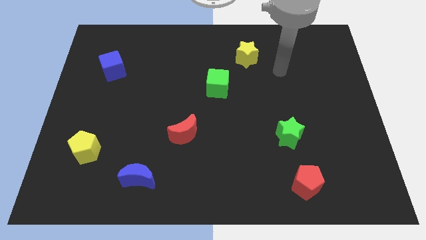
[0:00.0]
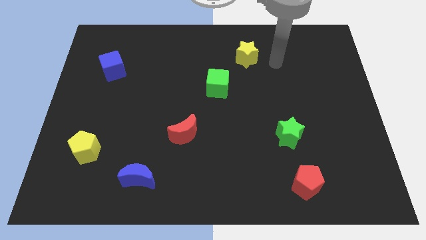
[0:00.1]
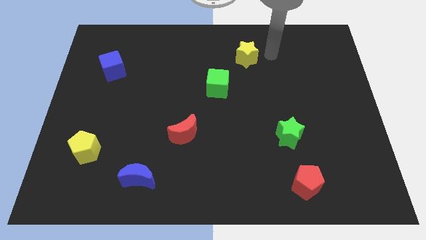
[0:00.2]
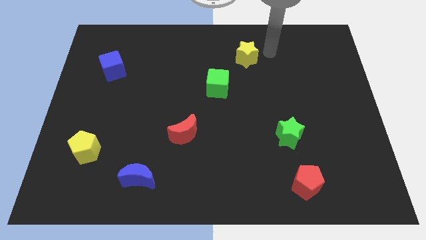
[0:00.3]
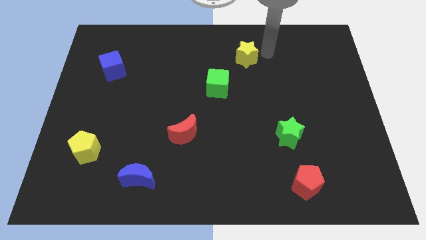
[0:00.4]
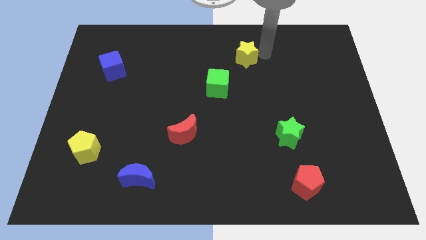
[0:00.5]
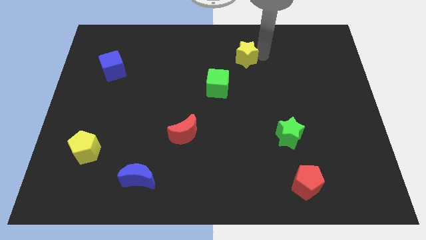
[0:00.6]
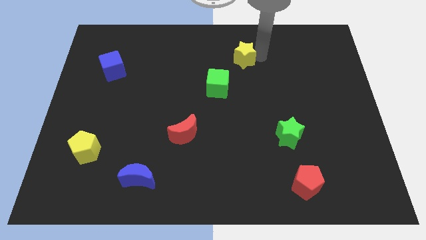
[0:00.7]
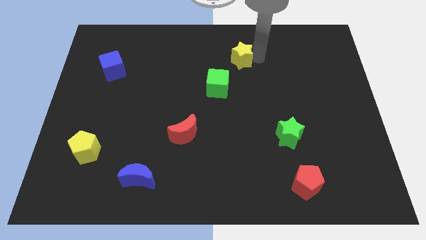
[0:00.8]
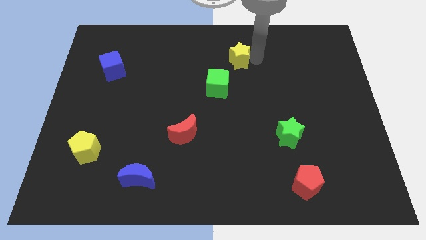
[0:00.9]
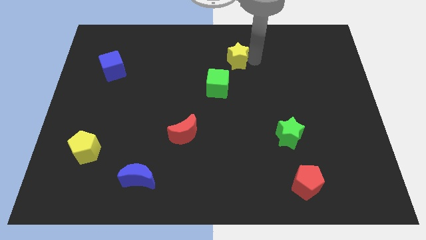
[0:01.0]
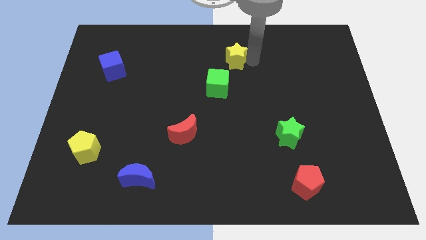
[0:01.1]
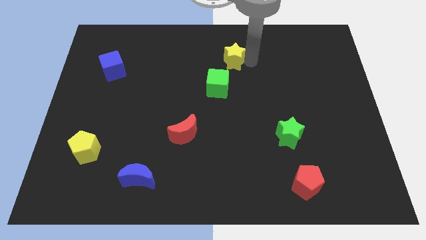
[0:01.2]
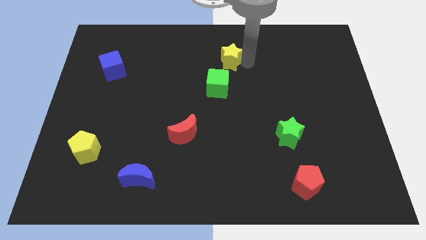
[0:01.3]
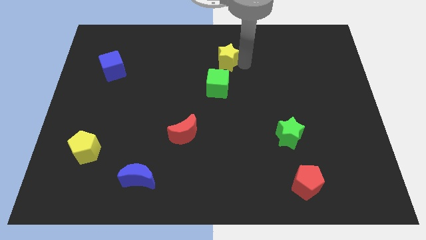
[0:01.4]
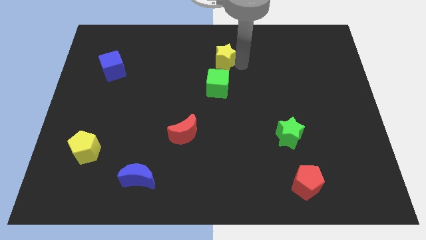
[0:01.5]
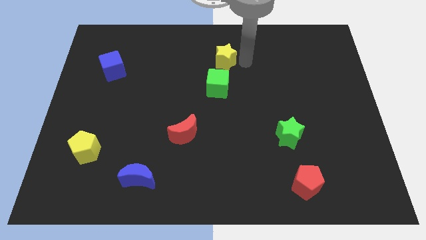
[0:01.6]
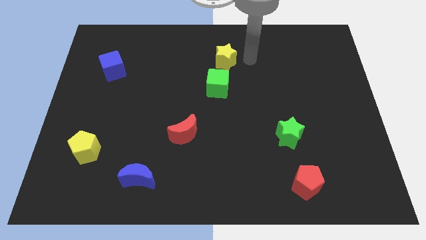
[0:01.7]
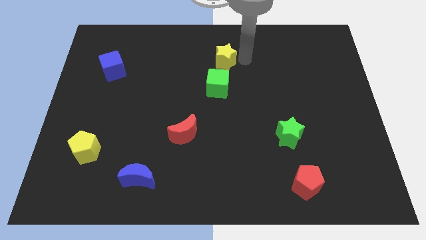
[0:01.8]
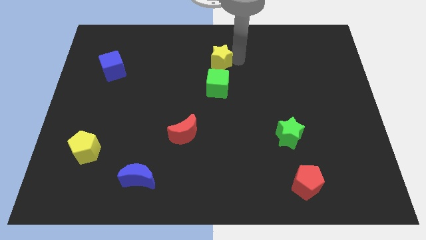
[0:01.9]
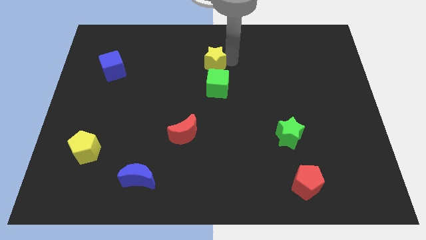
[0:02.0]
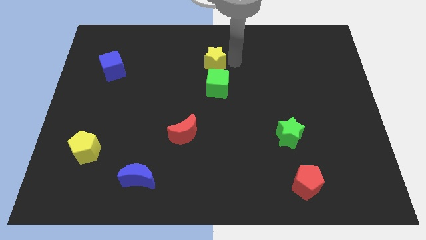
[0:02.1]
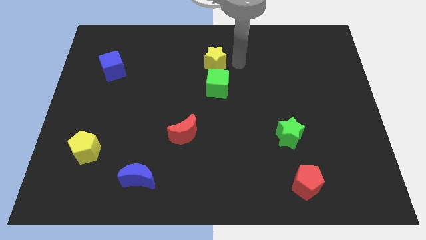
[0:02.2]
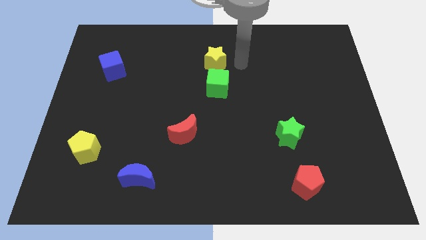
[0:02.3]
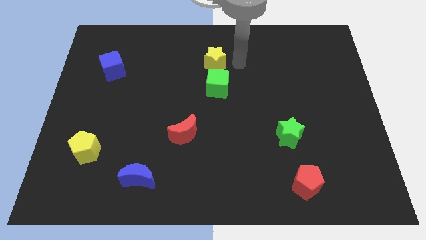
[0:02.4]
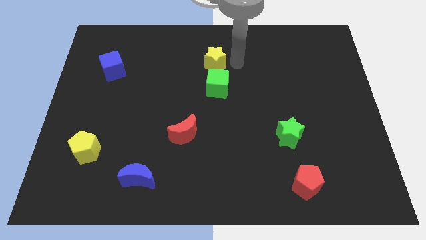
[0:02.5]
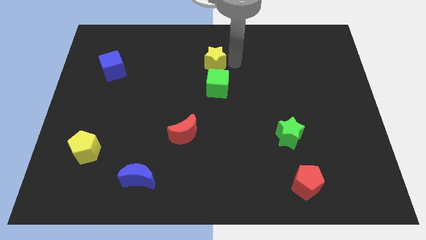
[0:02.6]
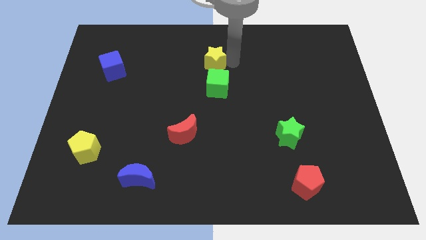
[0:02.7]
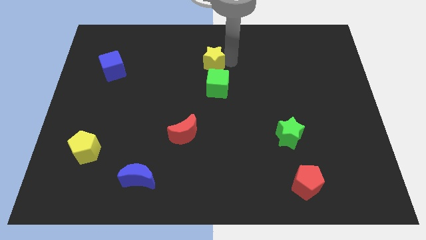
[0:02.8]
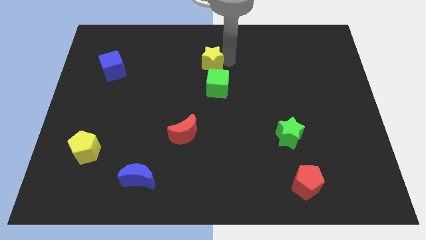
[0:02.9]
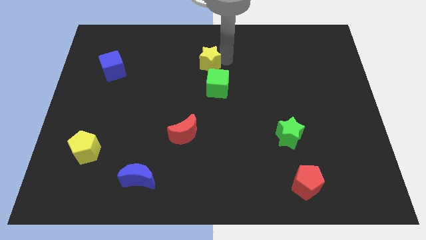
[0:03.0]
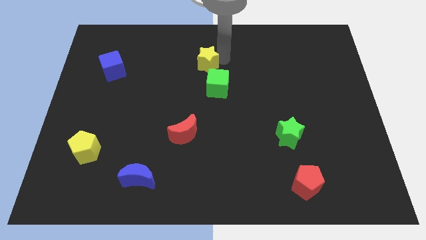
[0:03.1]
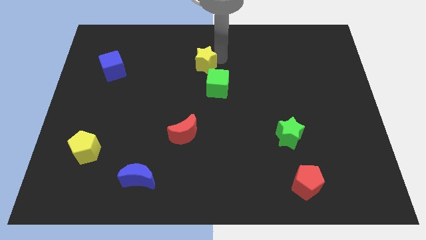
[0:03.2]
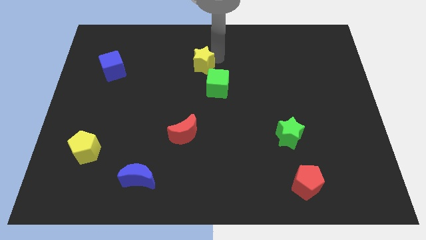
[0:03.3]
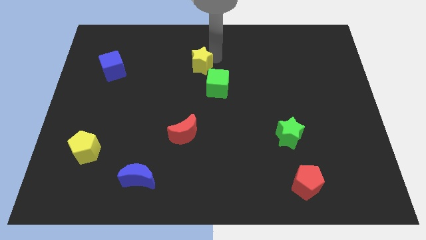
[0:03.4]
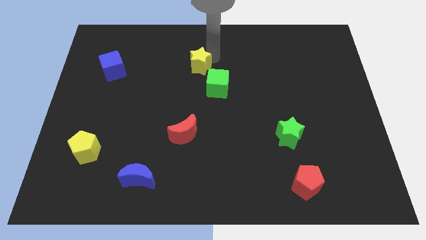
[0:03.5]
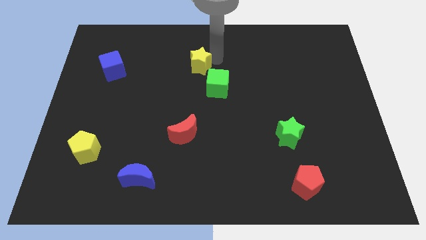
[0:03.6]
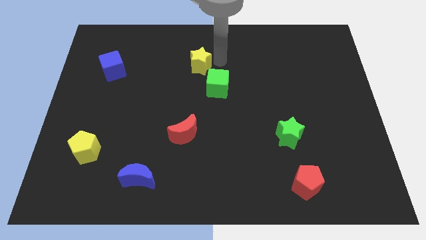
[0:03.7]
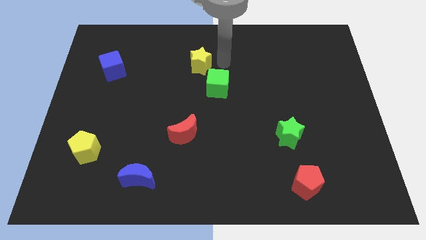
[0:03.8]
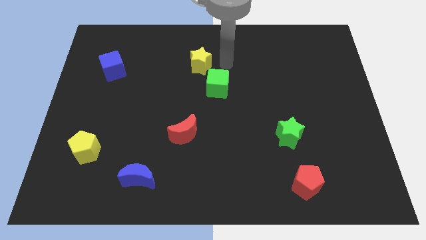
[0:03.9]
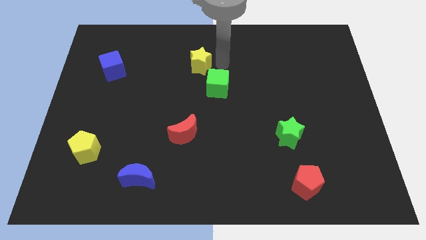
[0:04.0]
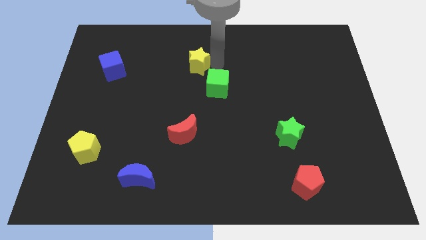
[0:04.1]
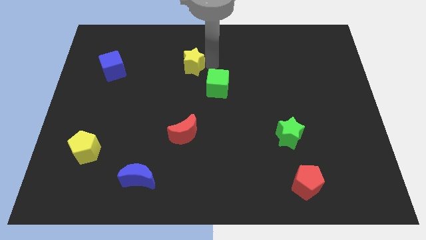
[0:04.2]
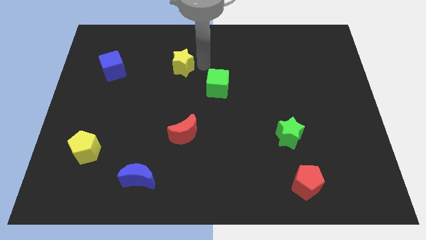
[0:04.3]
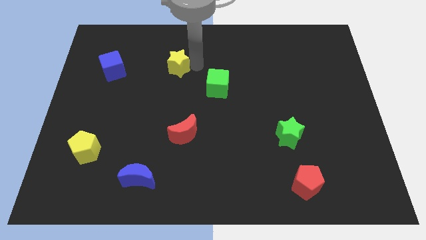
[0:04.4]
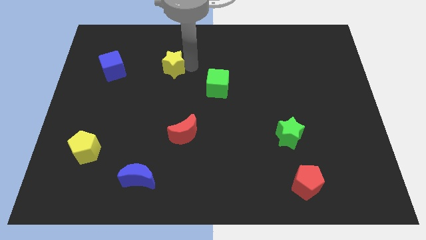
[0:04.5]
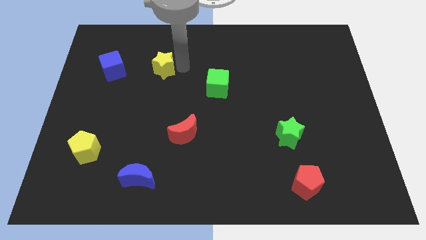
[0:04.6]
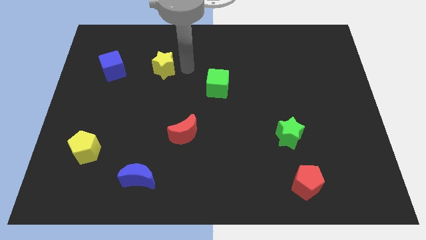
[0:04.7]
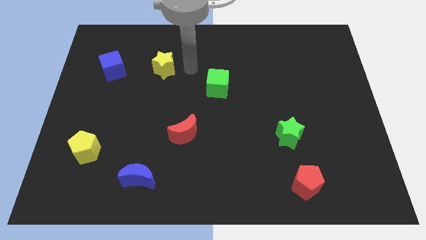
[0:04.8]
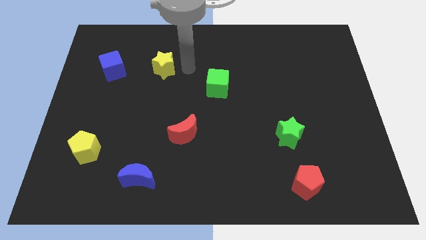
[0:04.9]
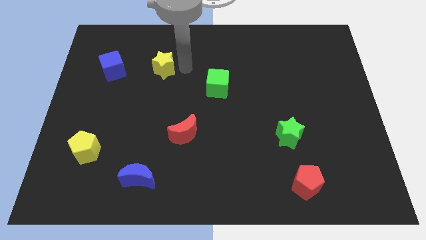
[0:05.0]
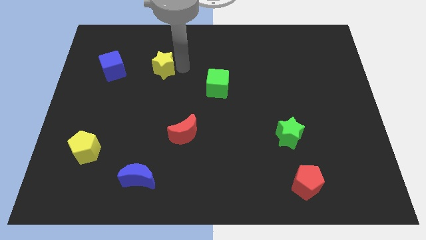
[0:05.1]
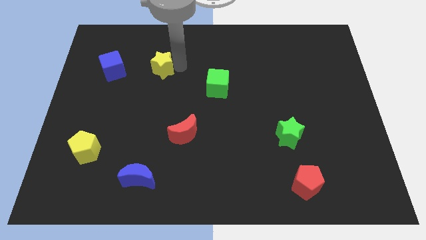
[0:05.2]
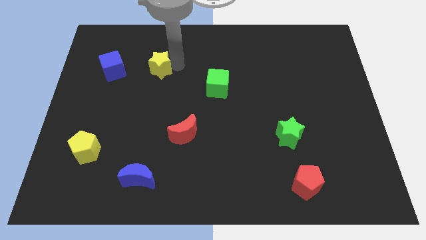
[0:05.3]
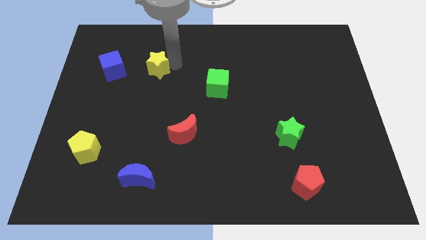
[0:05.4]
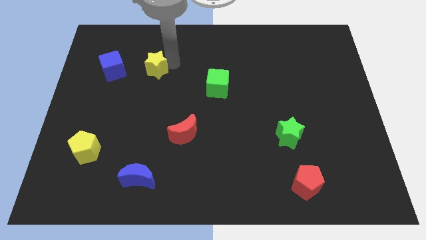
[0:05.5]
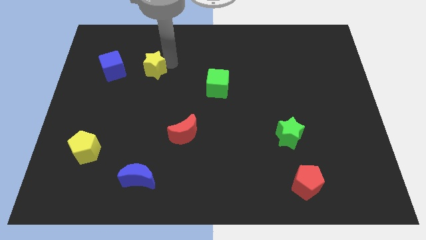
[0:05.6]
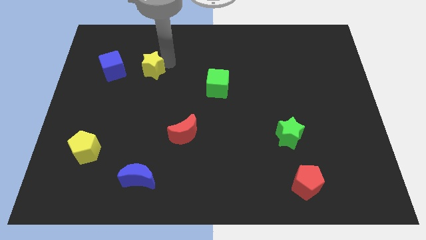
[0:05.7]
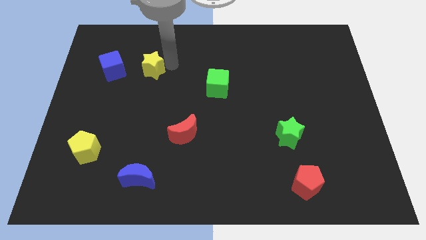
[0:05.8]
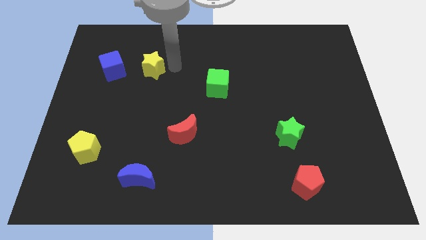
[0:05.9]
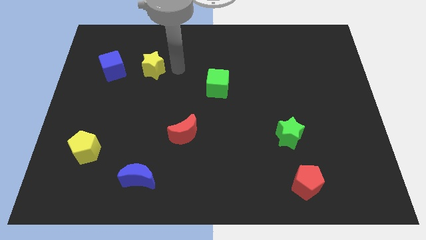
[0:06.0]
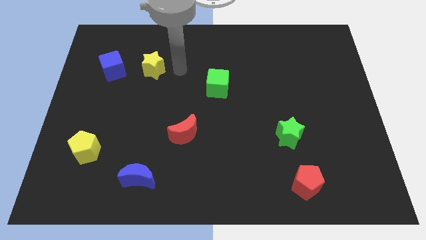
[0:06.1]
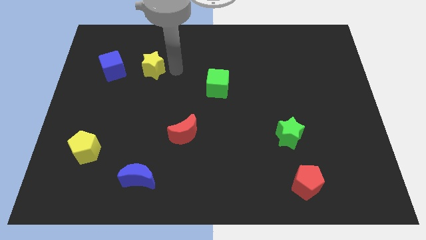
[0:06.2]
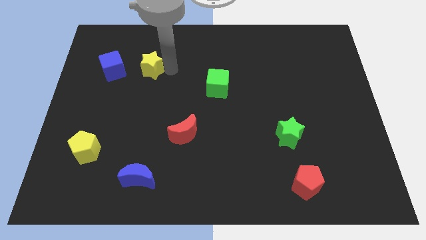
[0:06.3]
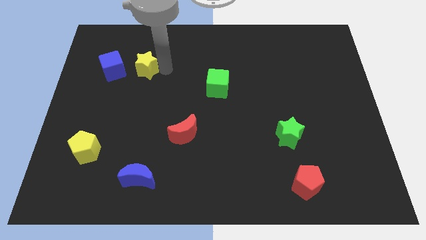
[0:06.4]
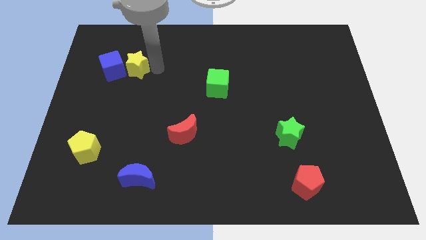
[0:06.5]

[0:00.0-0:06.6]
slide the yellow star to the blue cube

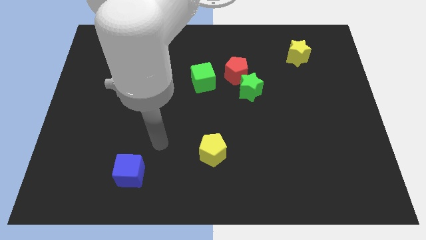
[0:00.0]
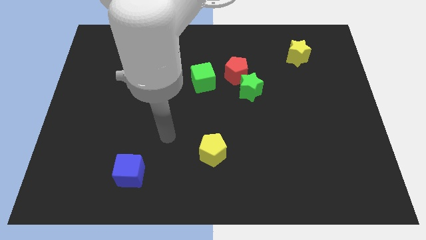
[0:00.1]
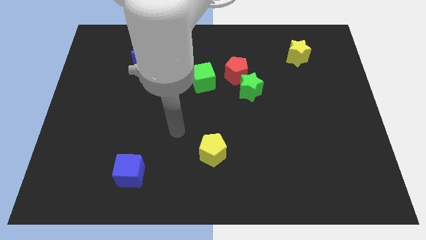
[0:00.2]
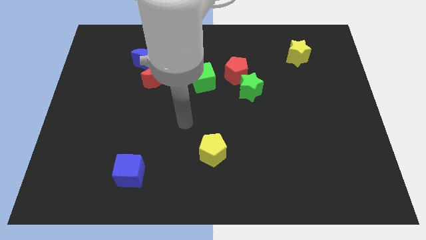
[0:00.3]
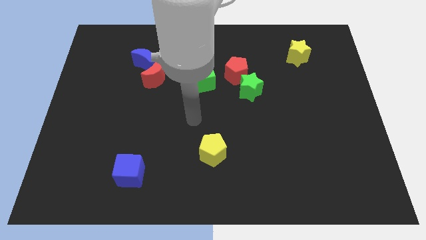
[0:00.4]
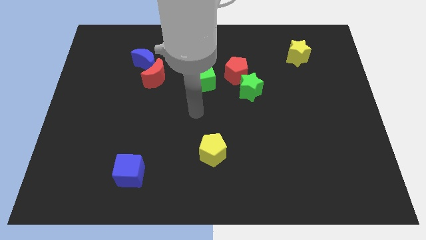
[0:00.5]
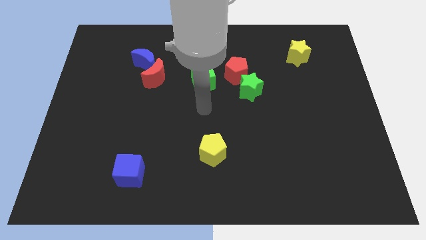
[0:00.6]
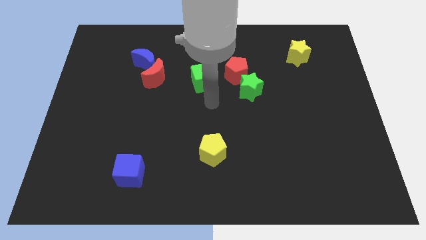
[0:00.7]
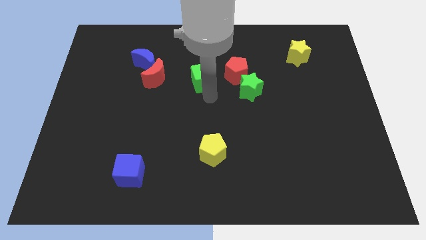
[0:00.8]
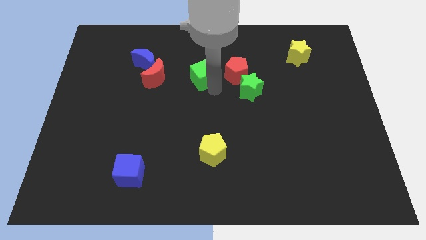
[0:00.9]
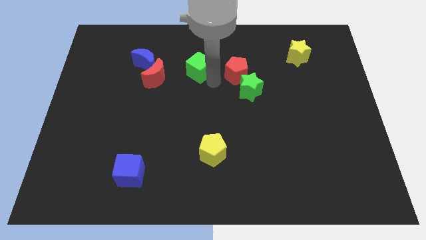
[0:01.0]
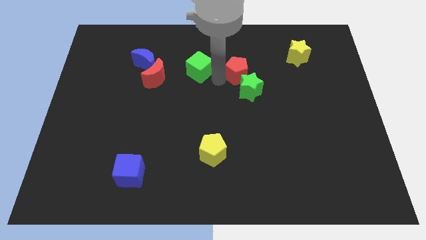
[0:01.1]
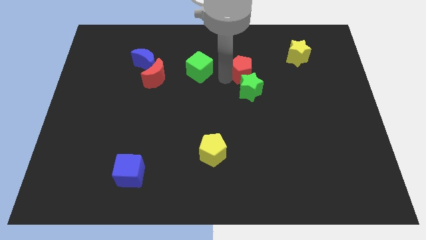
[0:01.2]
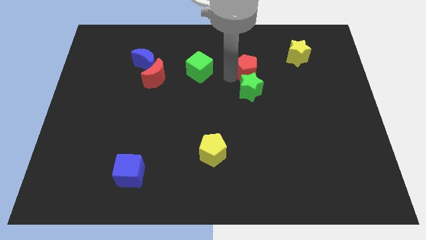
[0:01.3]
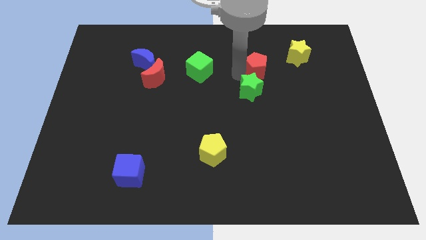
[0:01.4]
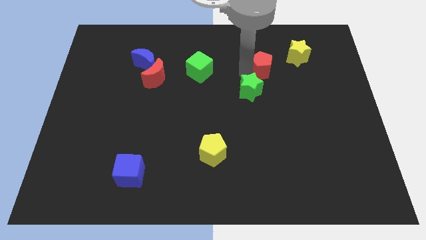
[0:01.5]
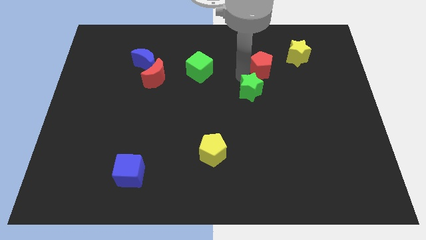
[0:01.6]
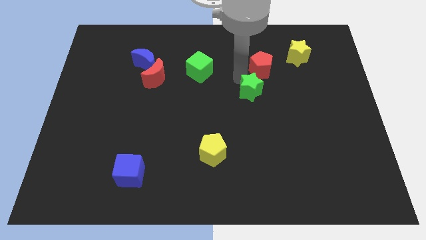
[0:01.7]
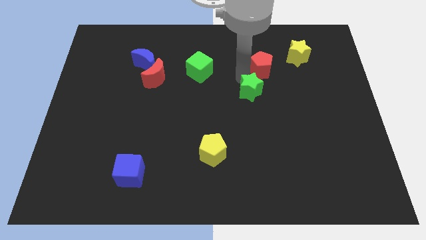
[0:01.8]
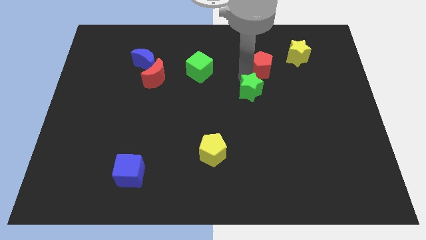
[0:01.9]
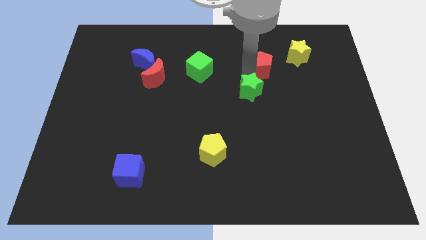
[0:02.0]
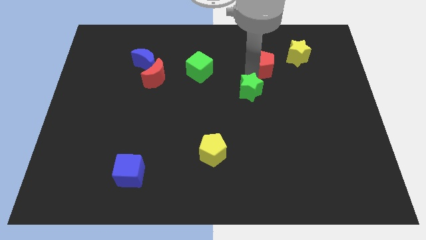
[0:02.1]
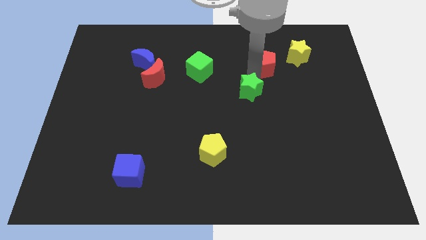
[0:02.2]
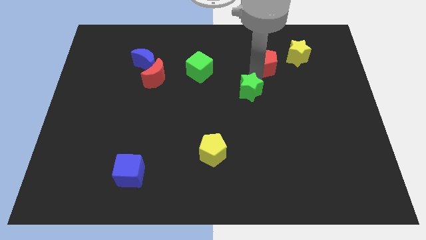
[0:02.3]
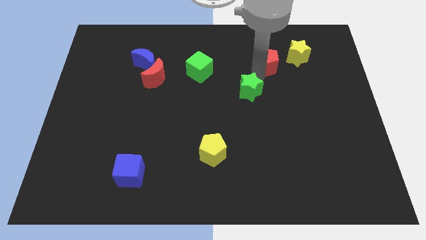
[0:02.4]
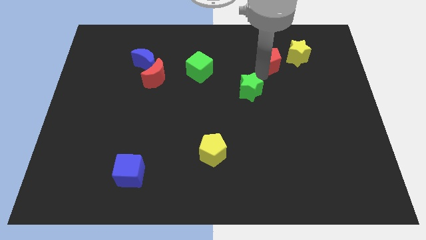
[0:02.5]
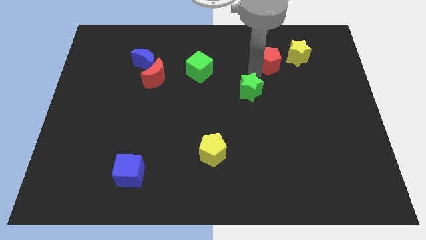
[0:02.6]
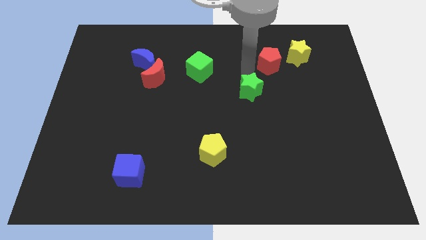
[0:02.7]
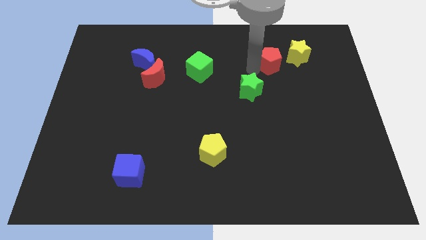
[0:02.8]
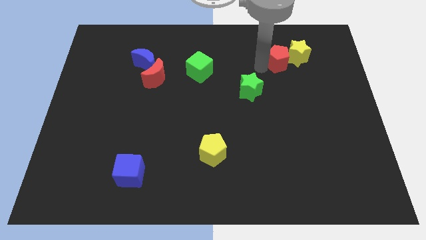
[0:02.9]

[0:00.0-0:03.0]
slide the red pentagon next to the yellow star
